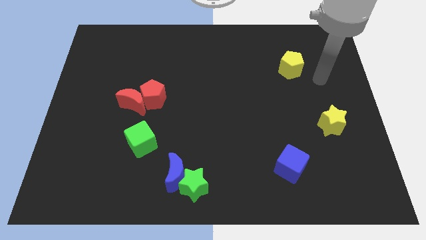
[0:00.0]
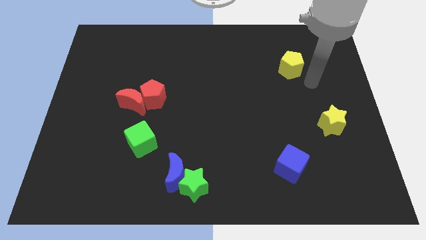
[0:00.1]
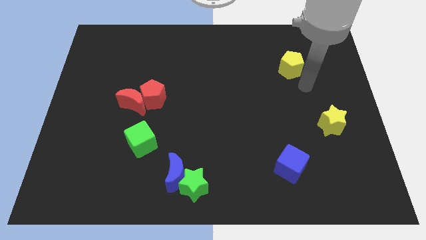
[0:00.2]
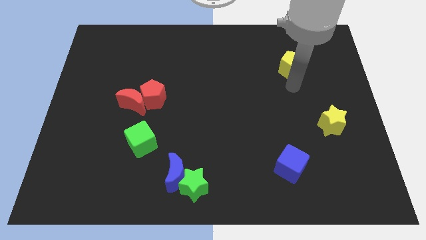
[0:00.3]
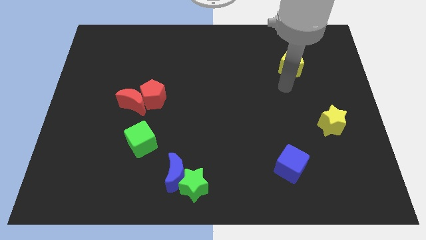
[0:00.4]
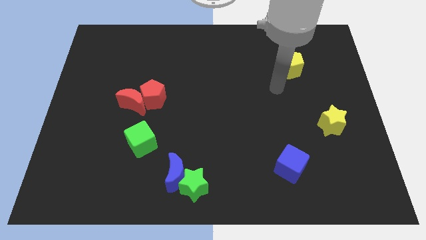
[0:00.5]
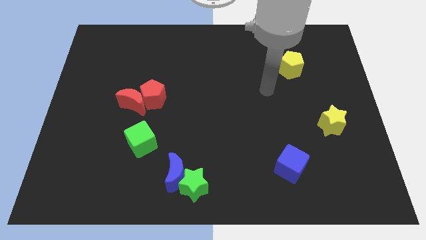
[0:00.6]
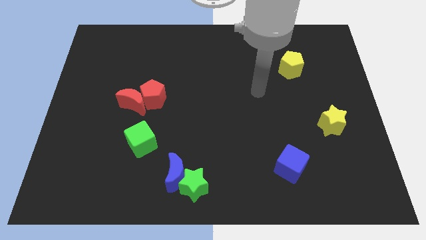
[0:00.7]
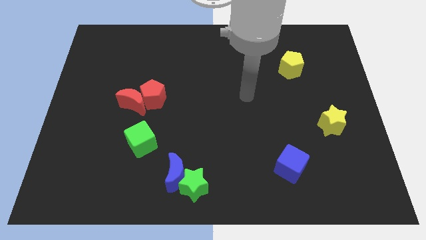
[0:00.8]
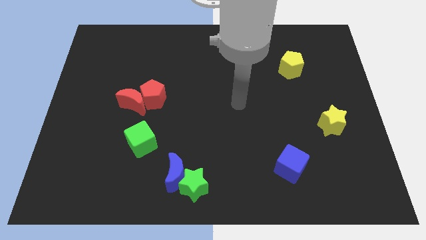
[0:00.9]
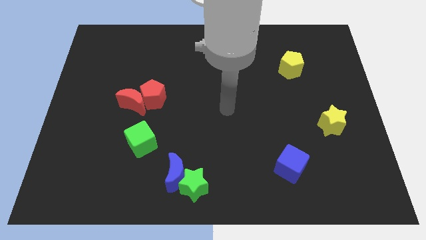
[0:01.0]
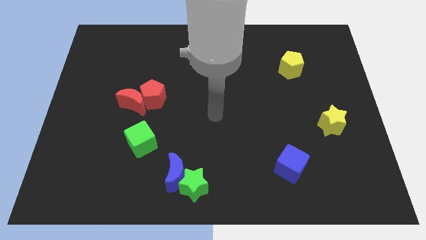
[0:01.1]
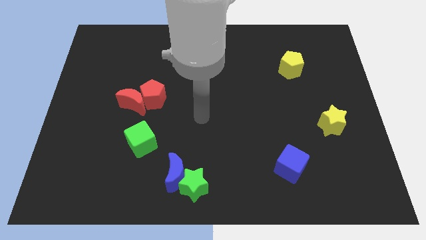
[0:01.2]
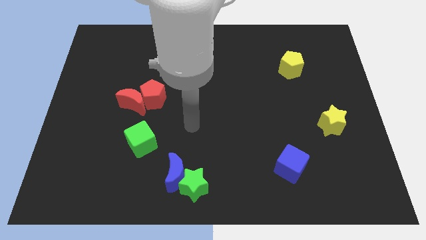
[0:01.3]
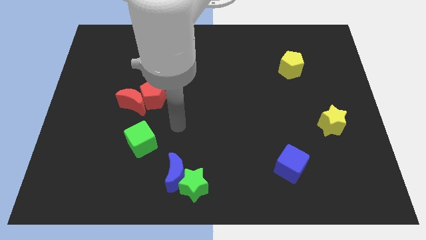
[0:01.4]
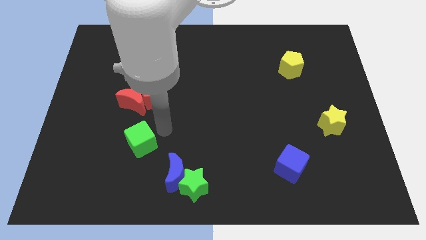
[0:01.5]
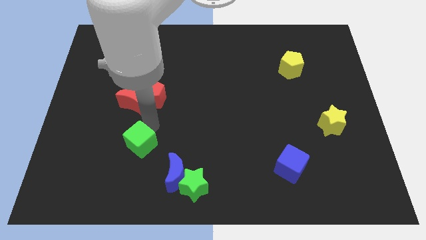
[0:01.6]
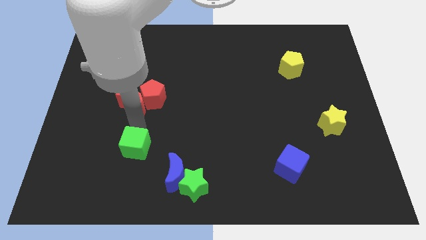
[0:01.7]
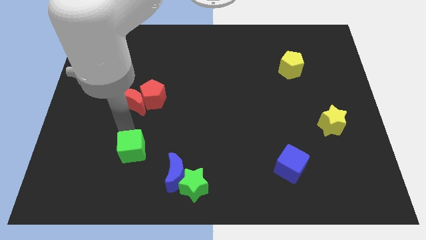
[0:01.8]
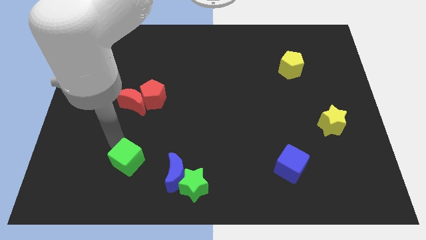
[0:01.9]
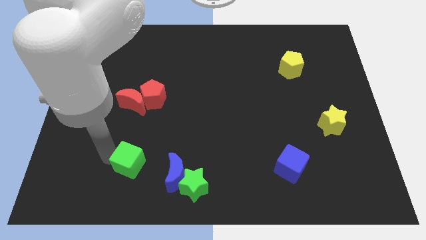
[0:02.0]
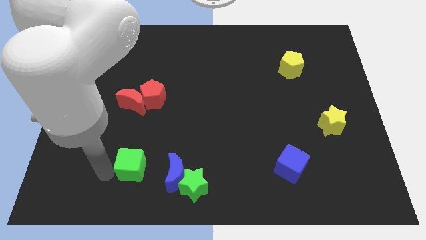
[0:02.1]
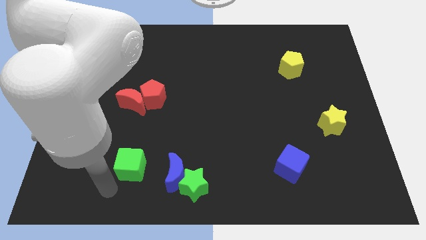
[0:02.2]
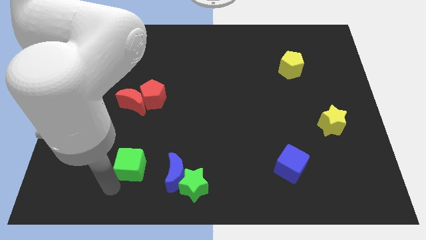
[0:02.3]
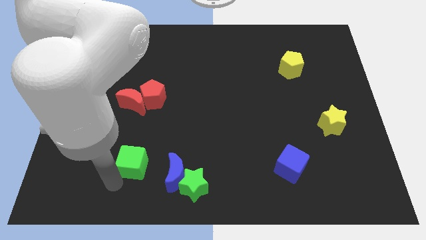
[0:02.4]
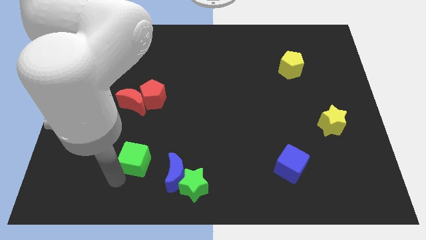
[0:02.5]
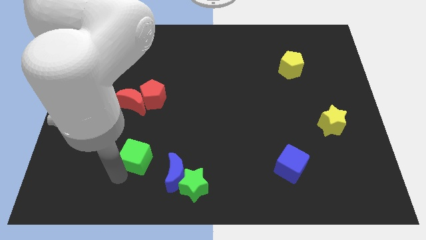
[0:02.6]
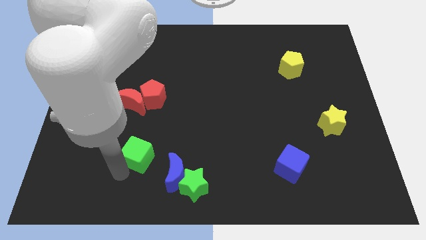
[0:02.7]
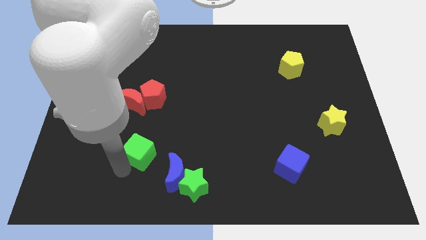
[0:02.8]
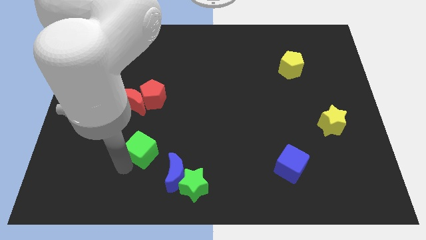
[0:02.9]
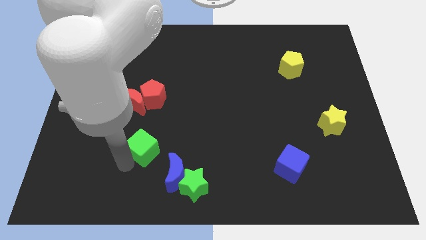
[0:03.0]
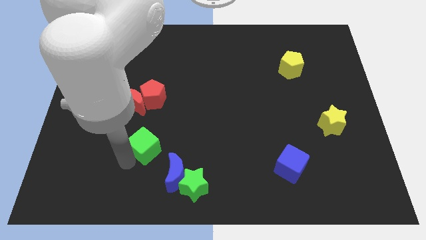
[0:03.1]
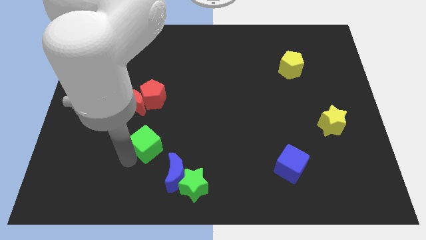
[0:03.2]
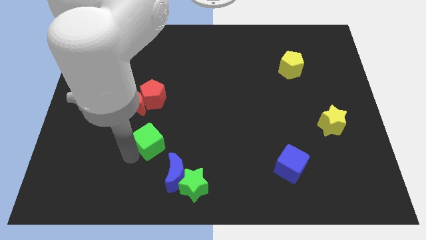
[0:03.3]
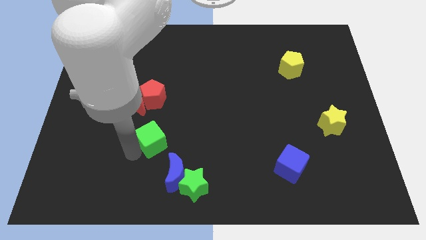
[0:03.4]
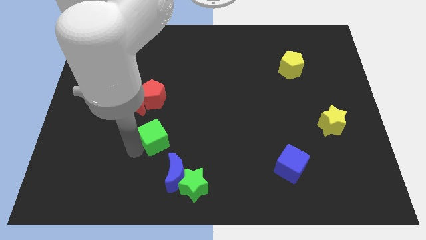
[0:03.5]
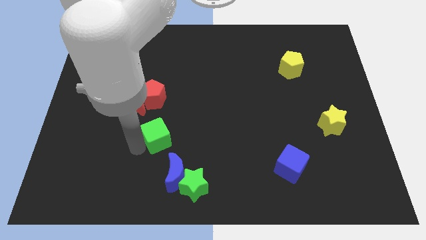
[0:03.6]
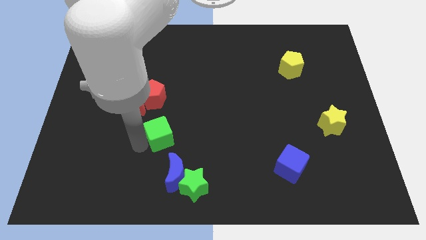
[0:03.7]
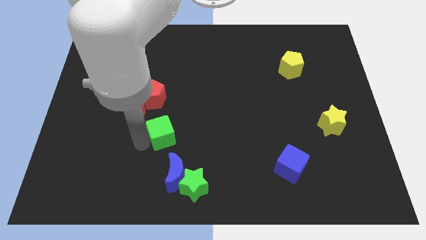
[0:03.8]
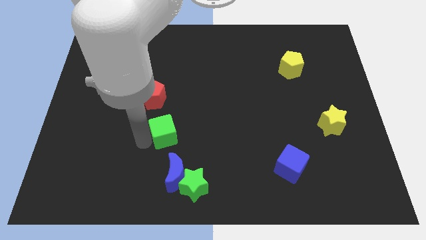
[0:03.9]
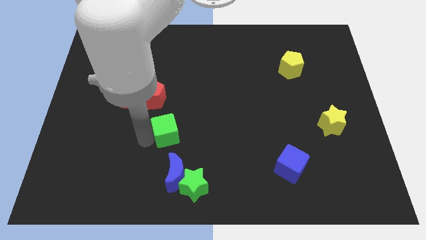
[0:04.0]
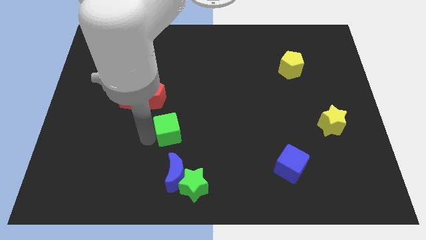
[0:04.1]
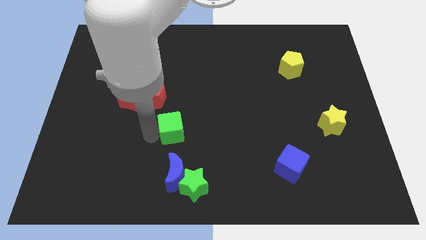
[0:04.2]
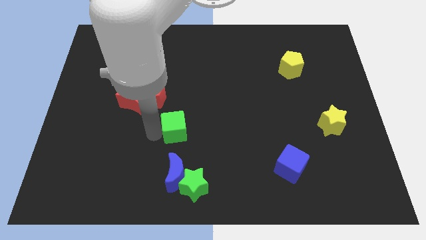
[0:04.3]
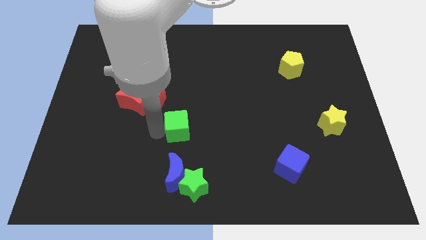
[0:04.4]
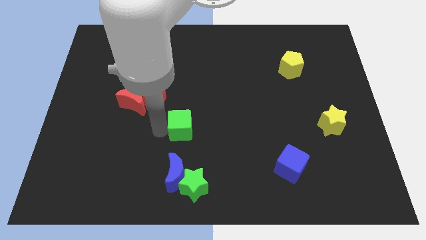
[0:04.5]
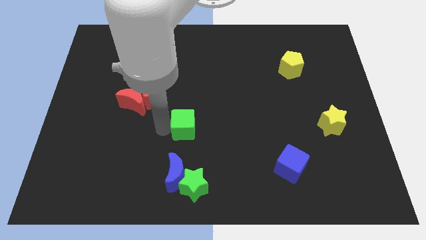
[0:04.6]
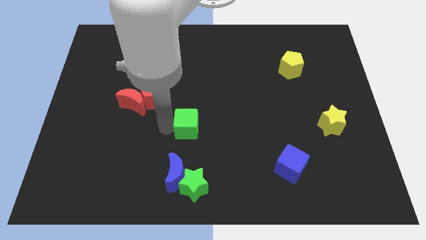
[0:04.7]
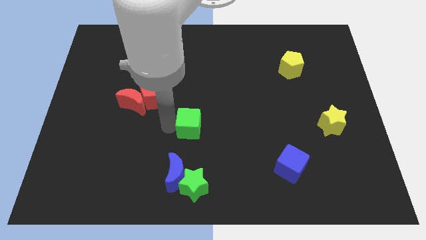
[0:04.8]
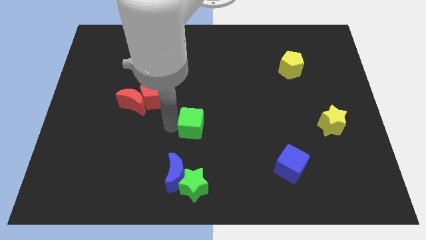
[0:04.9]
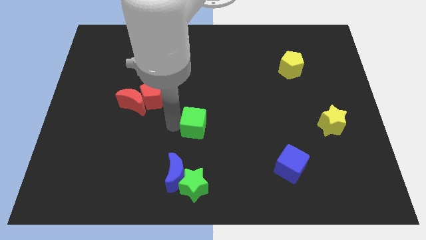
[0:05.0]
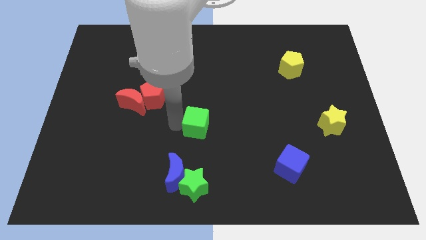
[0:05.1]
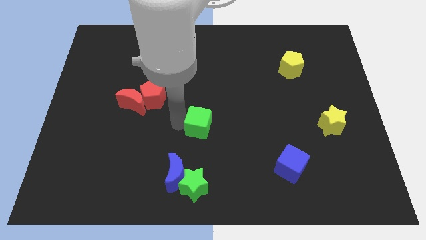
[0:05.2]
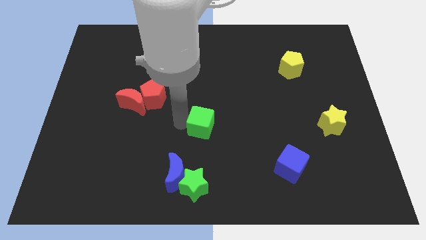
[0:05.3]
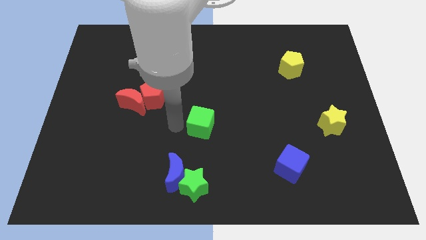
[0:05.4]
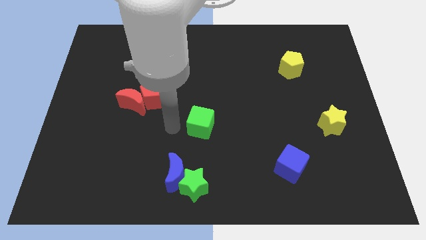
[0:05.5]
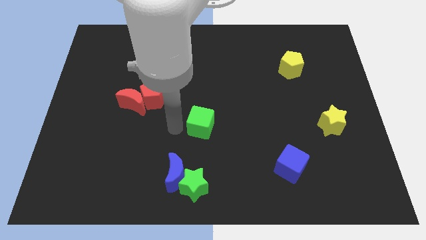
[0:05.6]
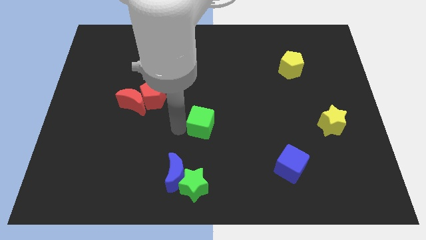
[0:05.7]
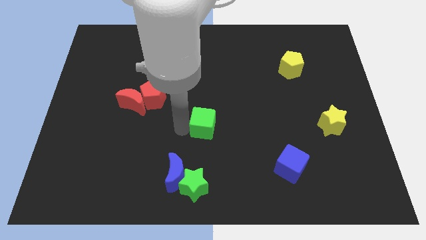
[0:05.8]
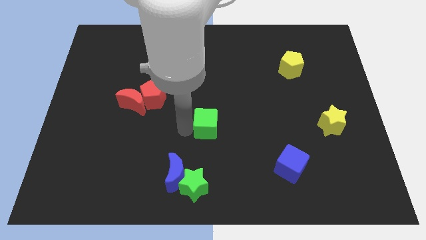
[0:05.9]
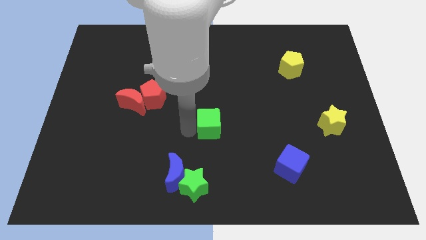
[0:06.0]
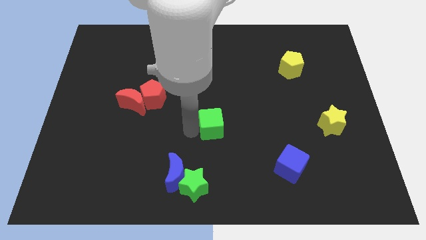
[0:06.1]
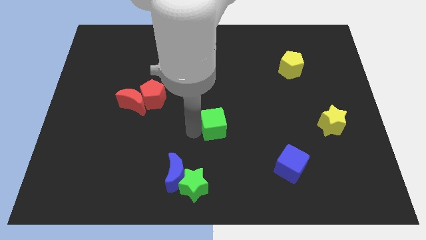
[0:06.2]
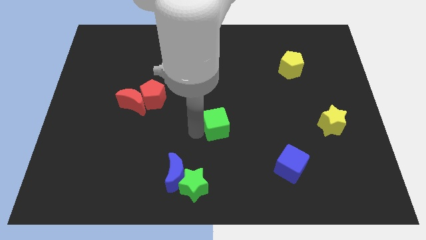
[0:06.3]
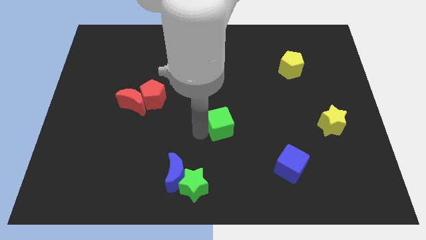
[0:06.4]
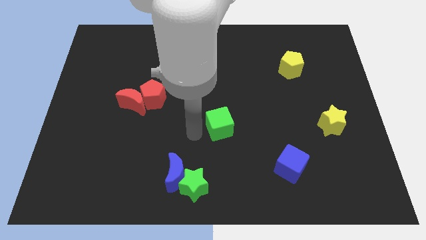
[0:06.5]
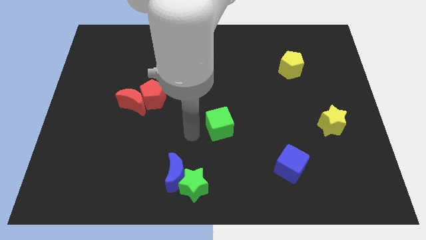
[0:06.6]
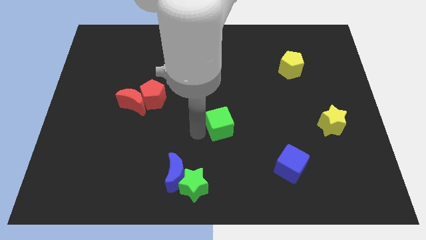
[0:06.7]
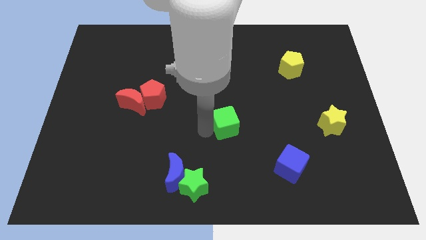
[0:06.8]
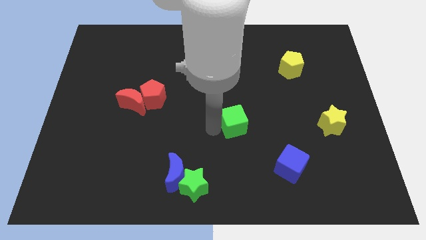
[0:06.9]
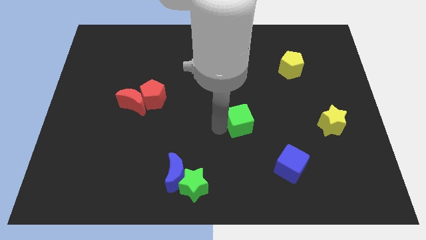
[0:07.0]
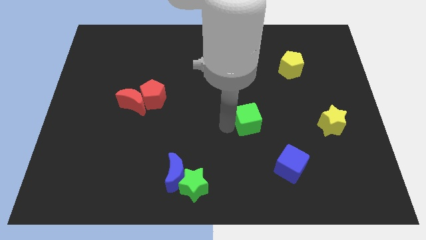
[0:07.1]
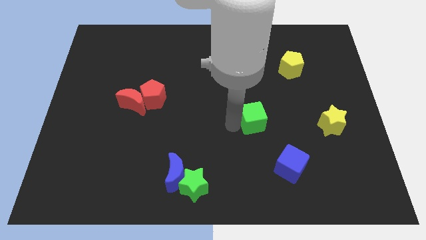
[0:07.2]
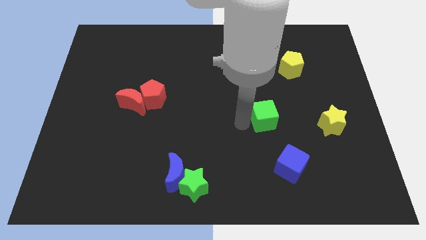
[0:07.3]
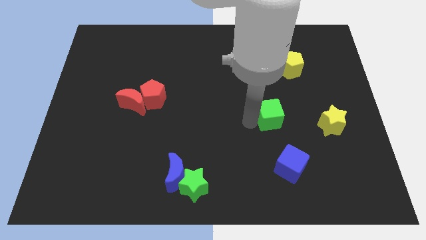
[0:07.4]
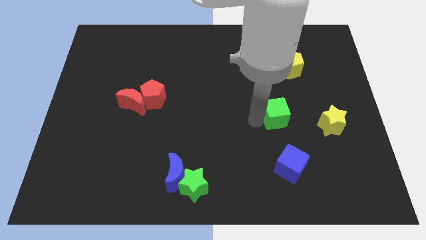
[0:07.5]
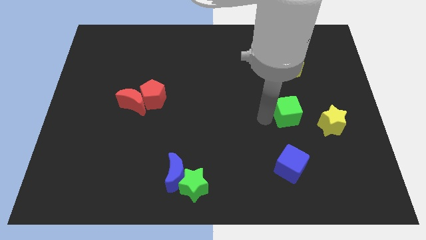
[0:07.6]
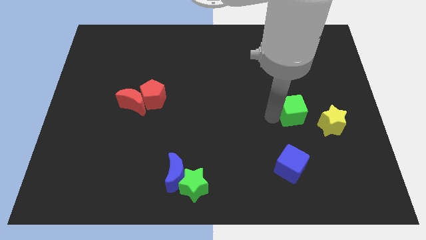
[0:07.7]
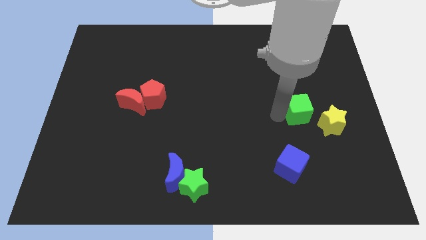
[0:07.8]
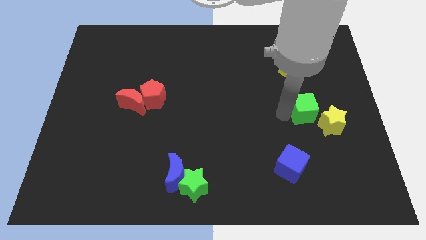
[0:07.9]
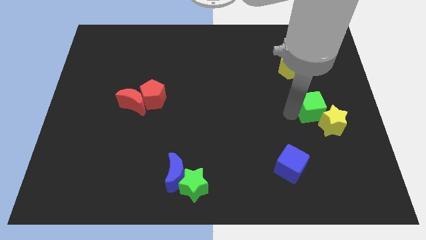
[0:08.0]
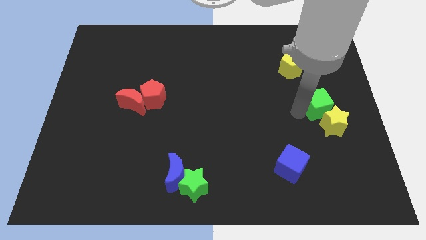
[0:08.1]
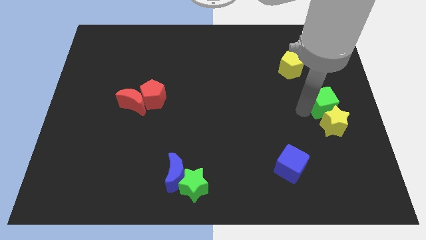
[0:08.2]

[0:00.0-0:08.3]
push the green cube to the right side
